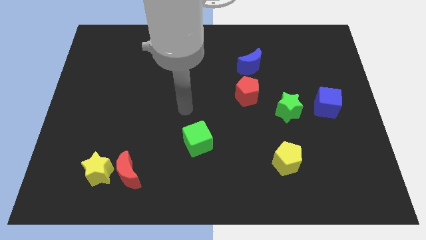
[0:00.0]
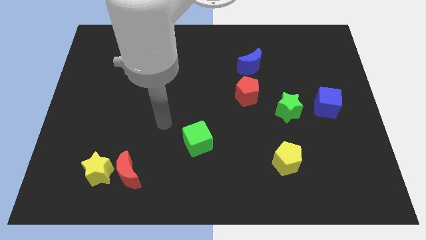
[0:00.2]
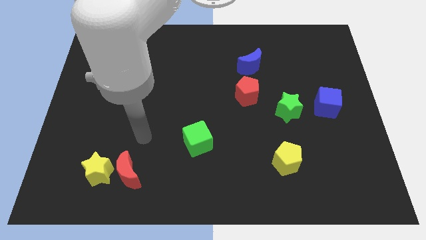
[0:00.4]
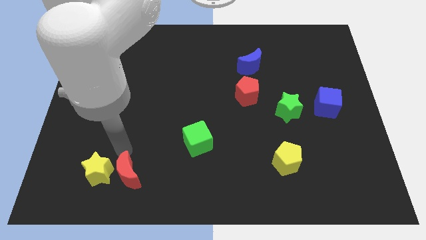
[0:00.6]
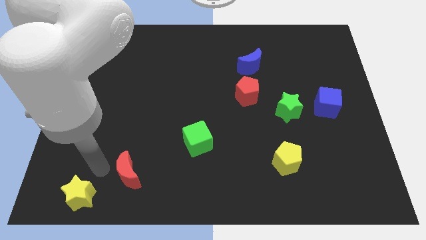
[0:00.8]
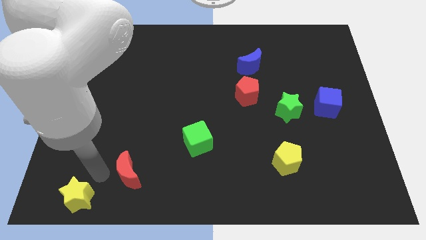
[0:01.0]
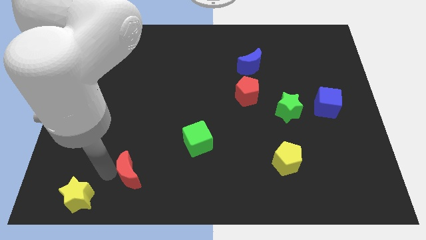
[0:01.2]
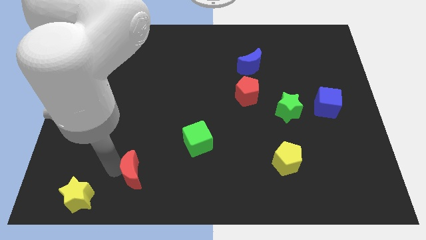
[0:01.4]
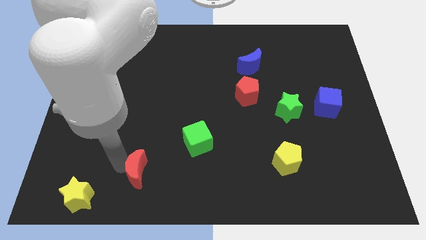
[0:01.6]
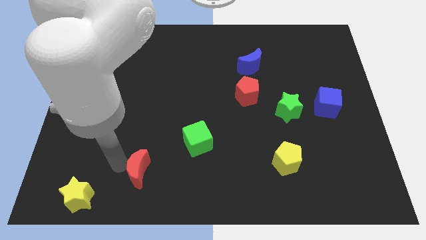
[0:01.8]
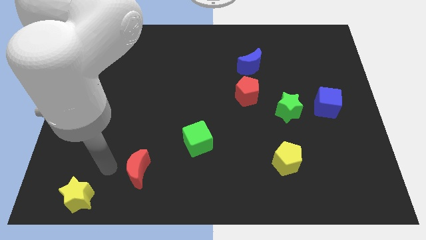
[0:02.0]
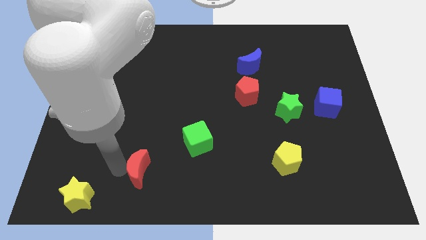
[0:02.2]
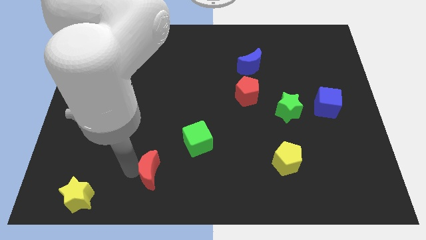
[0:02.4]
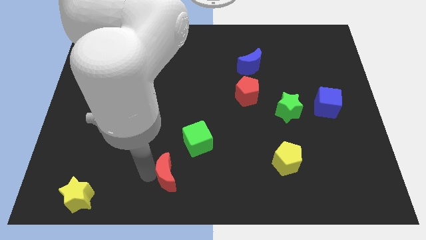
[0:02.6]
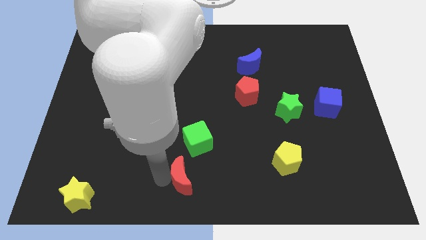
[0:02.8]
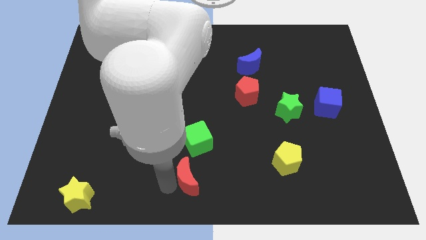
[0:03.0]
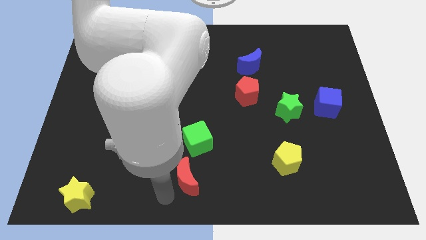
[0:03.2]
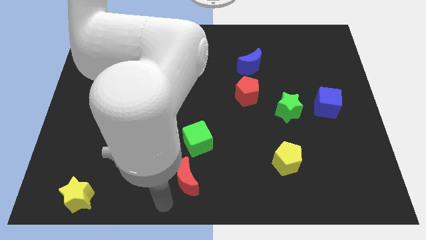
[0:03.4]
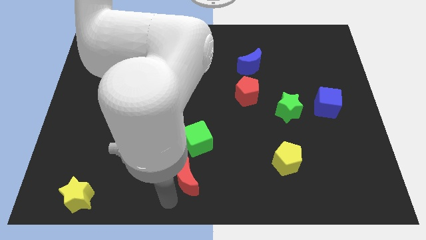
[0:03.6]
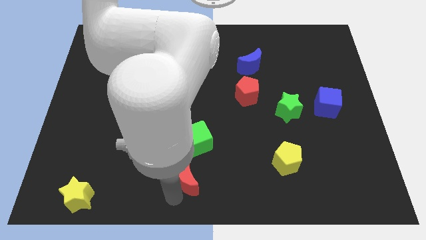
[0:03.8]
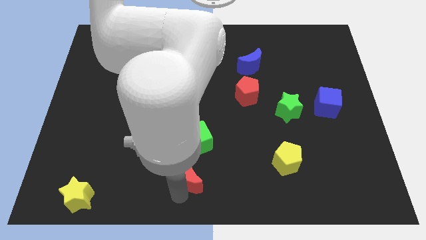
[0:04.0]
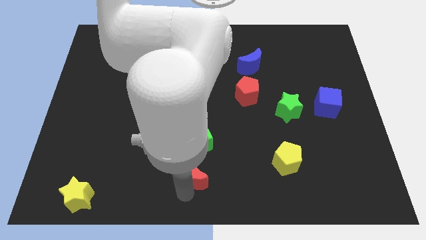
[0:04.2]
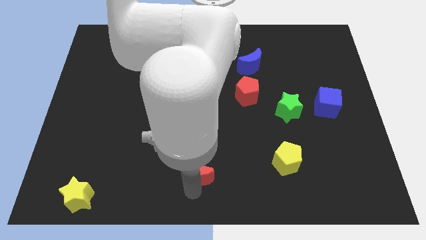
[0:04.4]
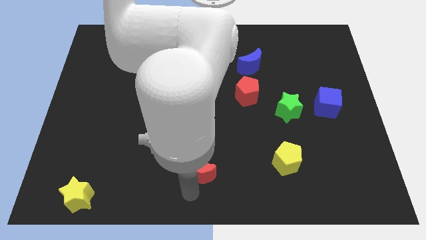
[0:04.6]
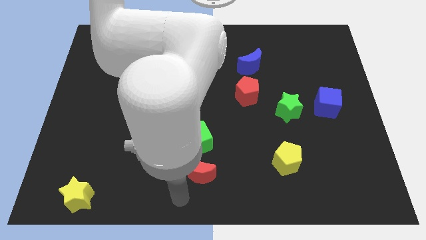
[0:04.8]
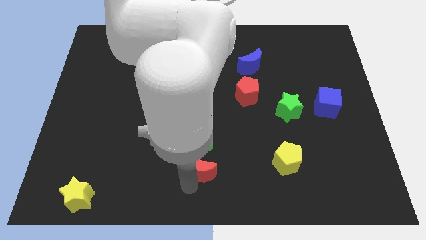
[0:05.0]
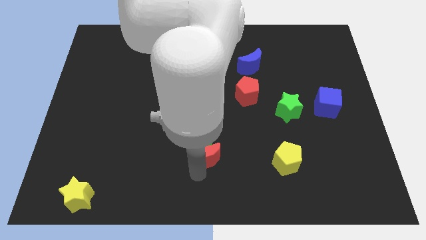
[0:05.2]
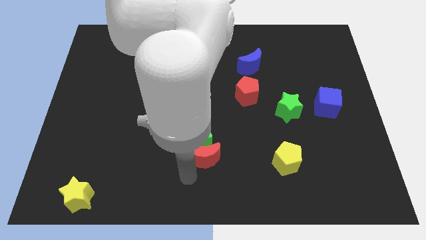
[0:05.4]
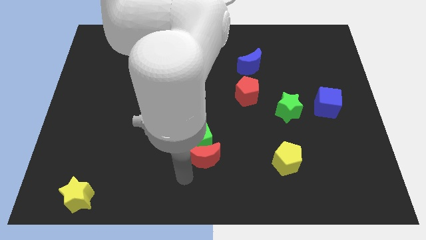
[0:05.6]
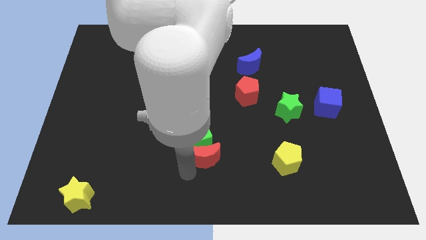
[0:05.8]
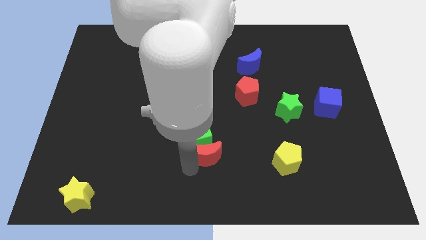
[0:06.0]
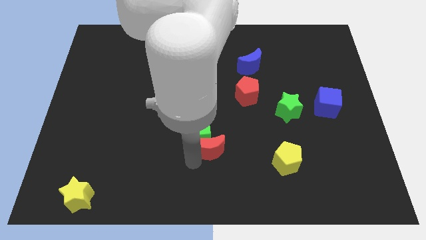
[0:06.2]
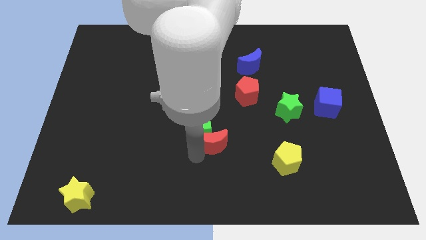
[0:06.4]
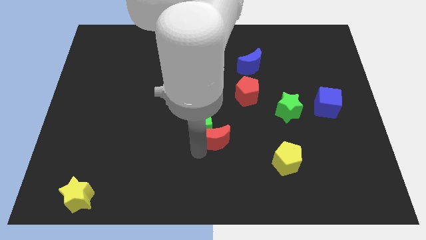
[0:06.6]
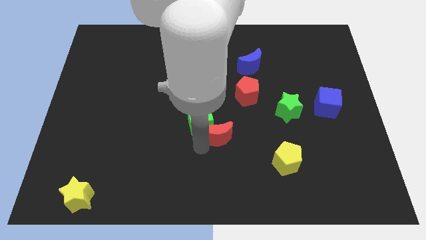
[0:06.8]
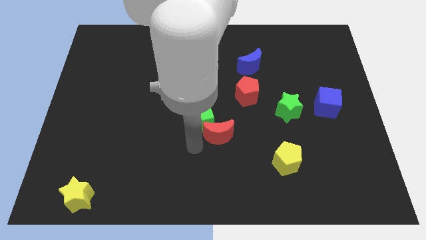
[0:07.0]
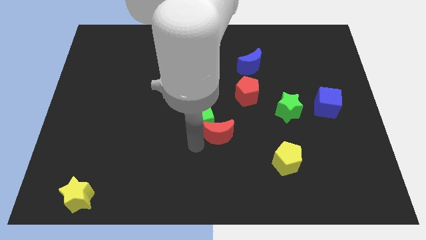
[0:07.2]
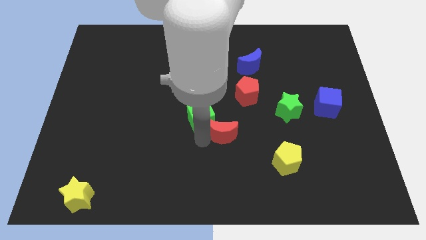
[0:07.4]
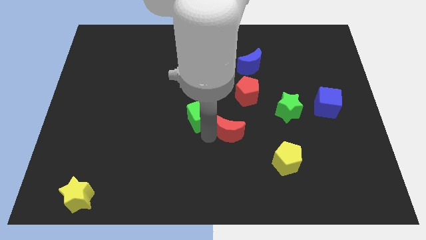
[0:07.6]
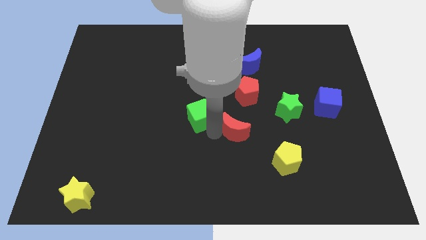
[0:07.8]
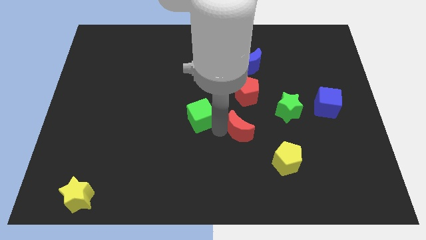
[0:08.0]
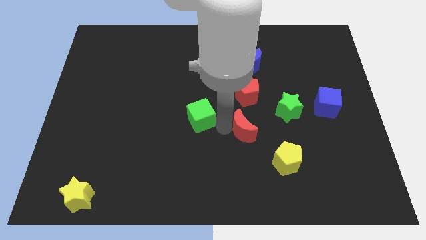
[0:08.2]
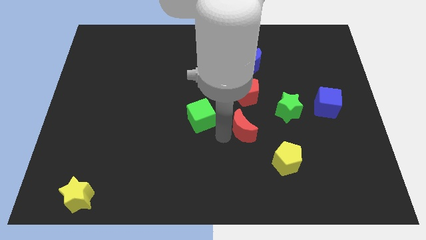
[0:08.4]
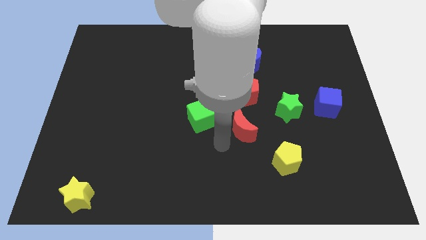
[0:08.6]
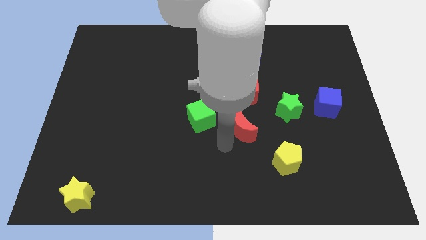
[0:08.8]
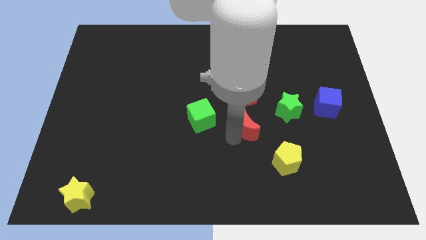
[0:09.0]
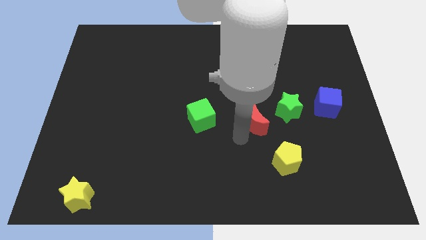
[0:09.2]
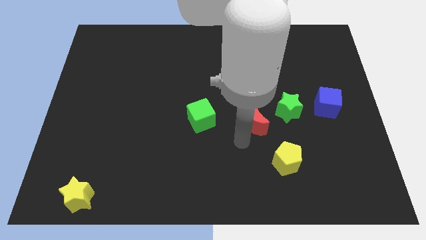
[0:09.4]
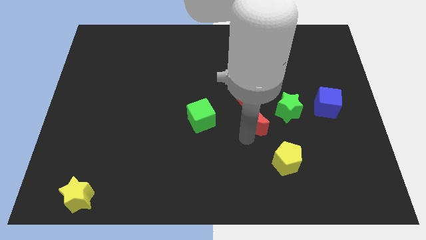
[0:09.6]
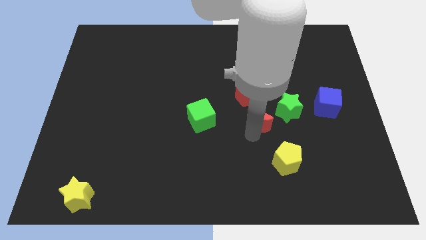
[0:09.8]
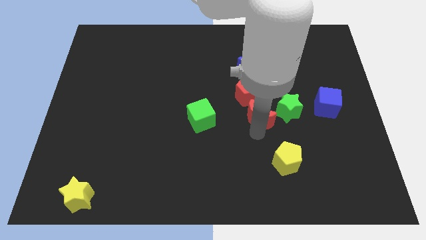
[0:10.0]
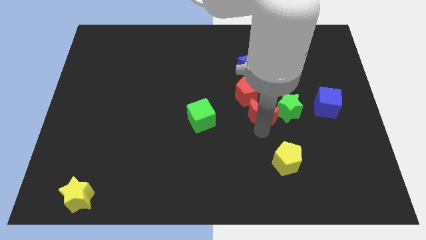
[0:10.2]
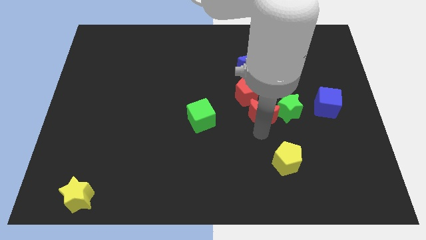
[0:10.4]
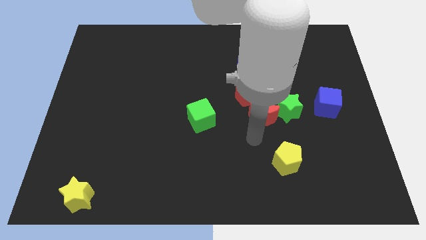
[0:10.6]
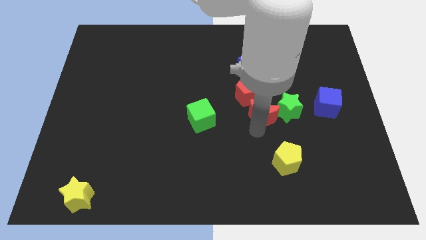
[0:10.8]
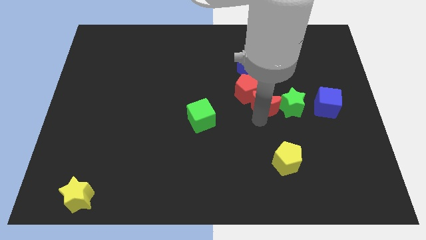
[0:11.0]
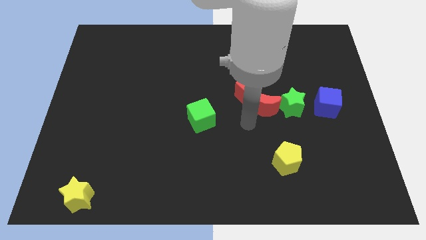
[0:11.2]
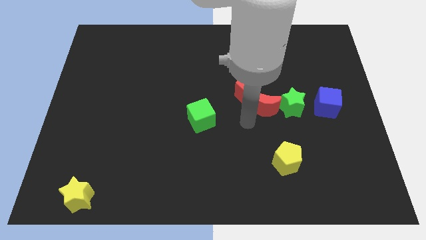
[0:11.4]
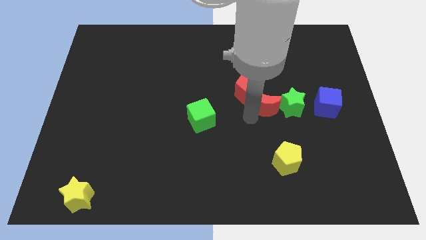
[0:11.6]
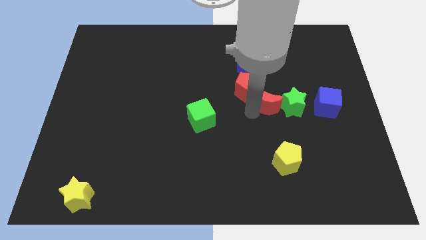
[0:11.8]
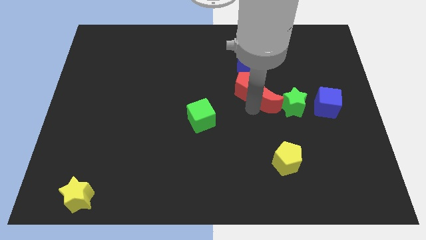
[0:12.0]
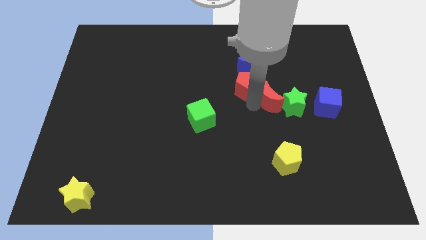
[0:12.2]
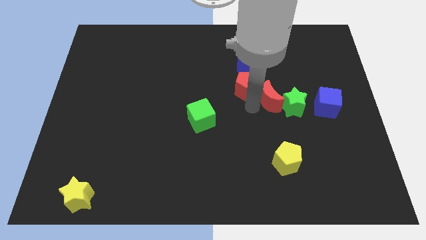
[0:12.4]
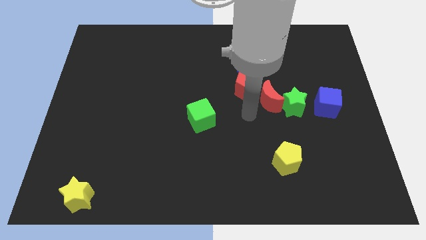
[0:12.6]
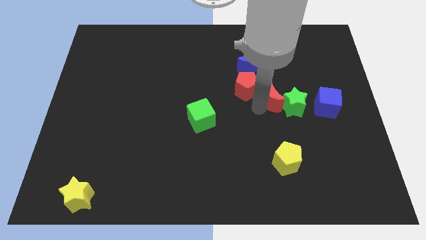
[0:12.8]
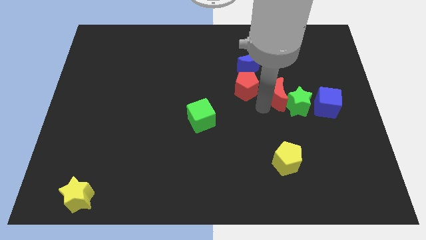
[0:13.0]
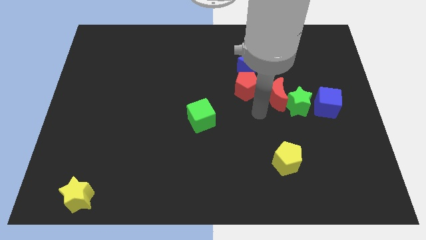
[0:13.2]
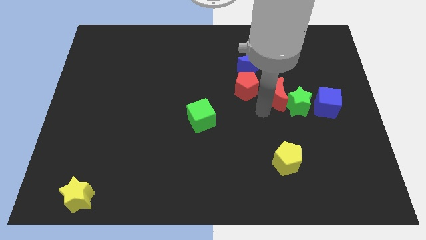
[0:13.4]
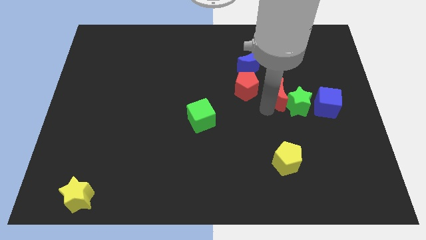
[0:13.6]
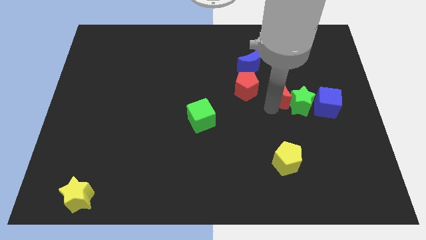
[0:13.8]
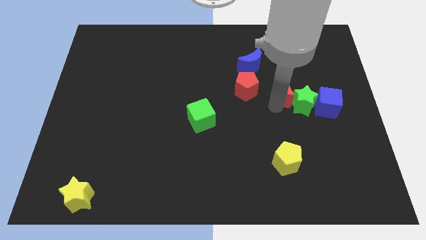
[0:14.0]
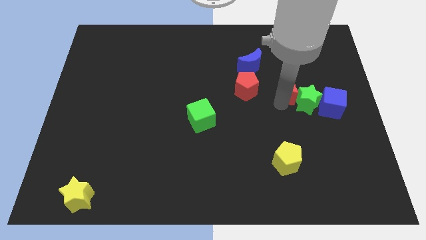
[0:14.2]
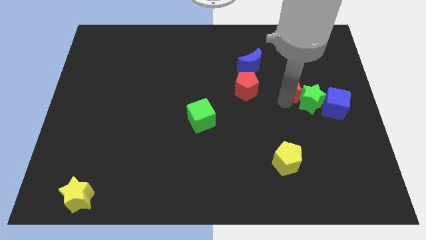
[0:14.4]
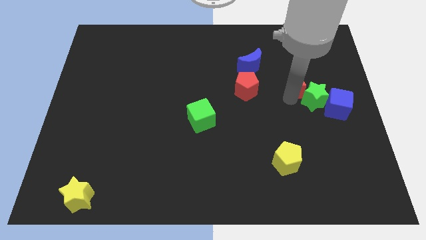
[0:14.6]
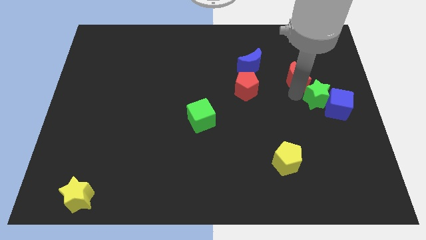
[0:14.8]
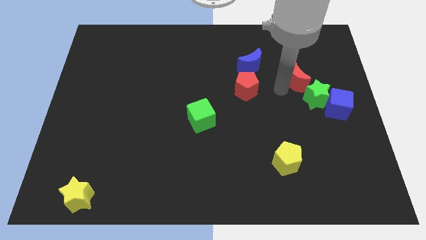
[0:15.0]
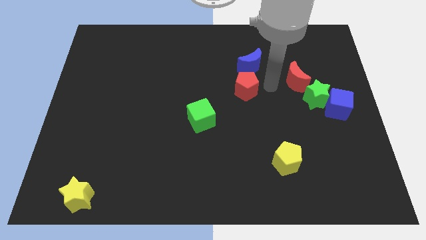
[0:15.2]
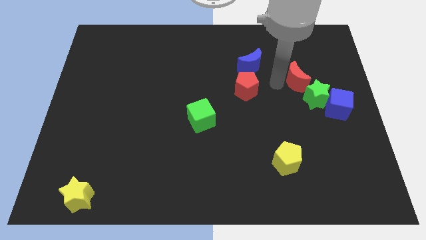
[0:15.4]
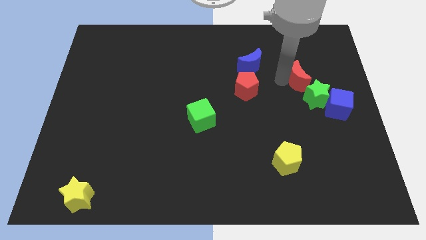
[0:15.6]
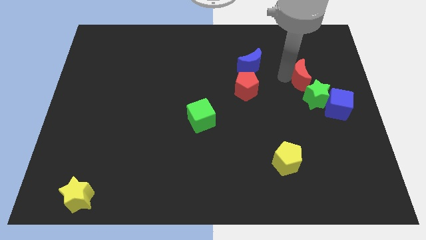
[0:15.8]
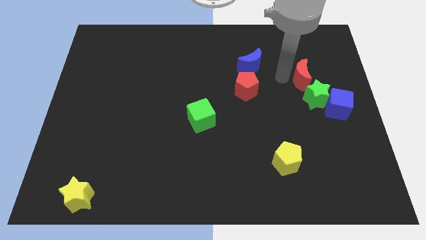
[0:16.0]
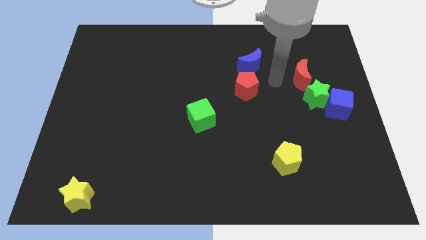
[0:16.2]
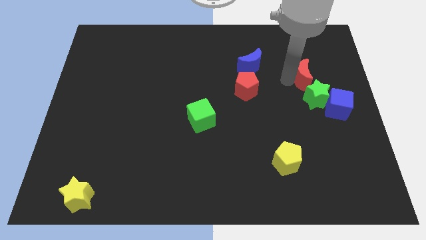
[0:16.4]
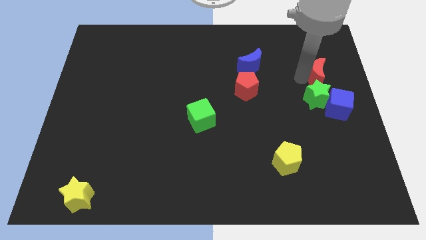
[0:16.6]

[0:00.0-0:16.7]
move the red moon above the blue cube
